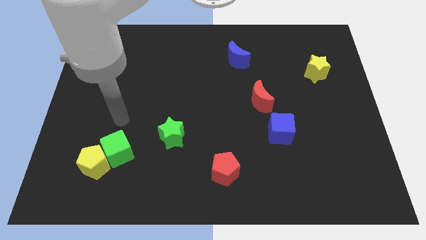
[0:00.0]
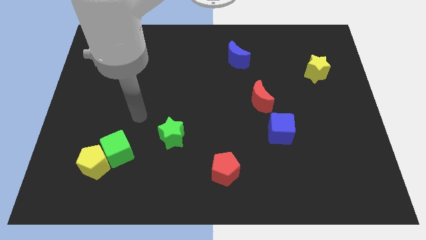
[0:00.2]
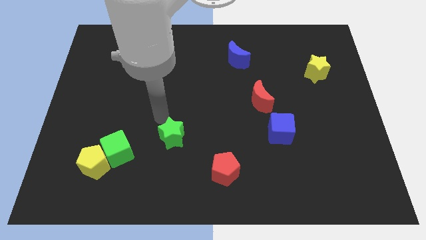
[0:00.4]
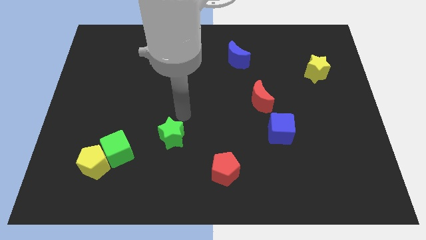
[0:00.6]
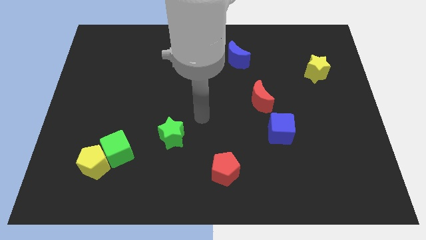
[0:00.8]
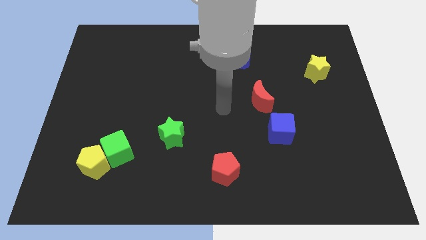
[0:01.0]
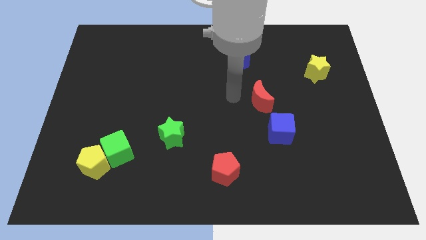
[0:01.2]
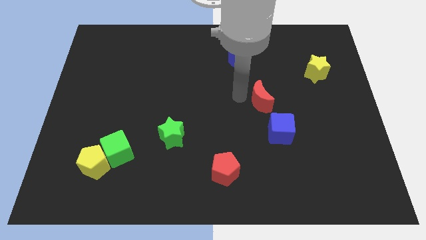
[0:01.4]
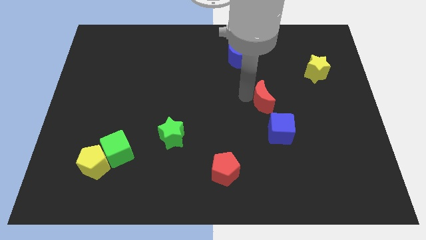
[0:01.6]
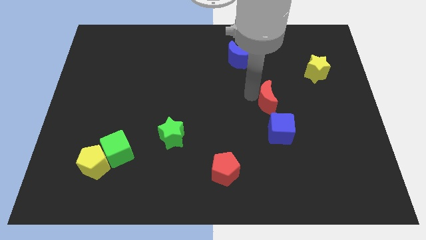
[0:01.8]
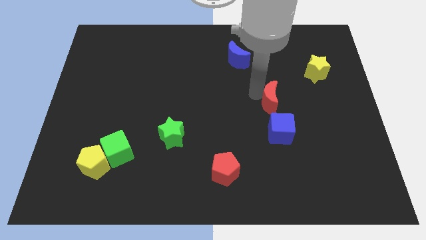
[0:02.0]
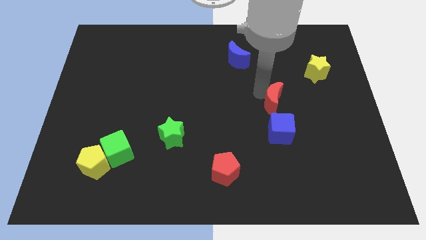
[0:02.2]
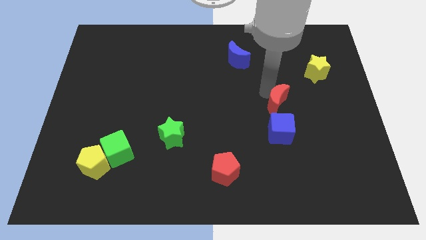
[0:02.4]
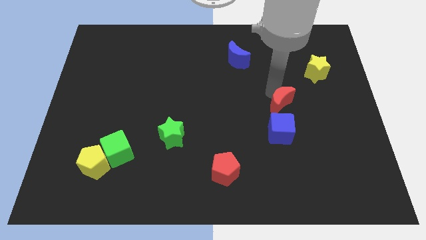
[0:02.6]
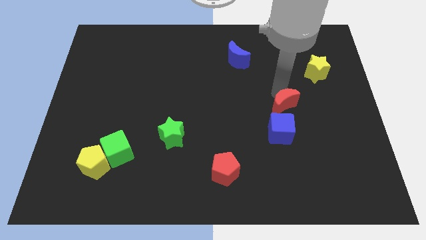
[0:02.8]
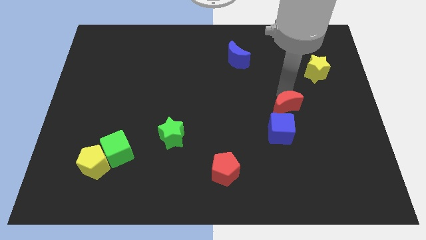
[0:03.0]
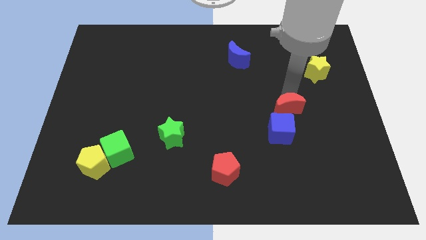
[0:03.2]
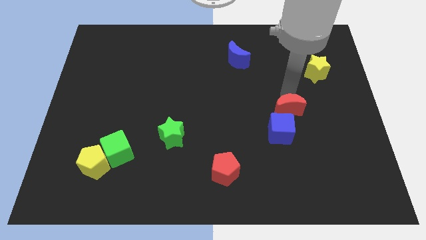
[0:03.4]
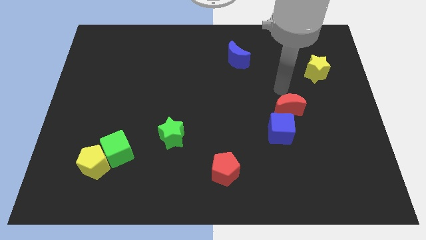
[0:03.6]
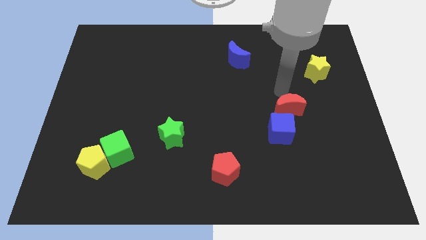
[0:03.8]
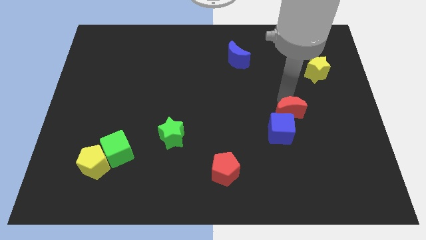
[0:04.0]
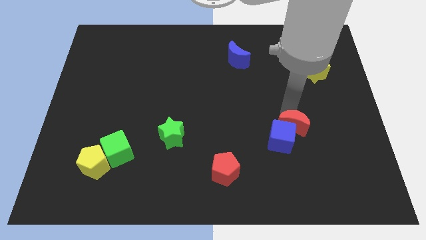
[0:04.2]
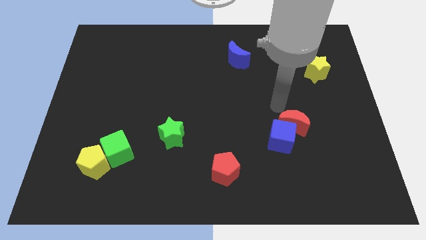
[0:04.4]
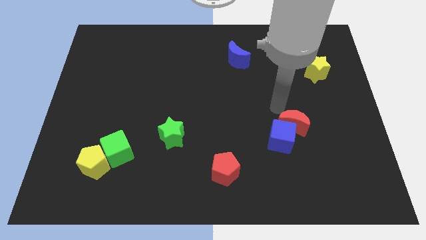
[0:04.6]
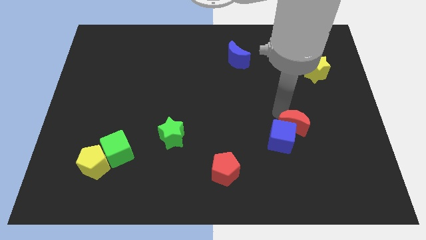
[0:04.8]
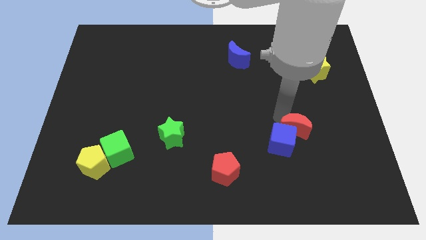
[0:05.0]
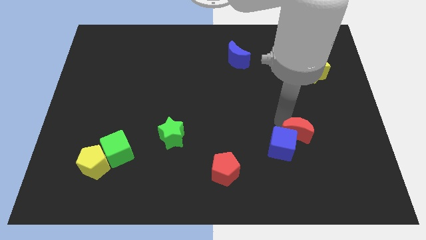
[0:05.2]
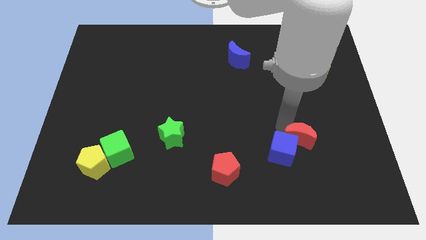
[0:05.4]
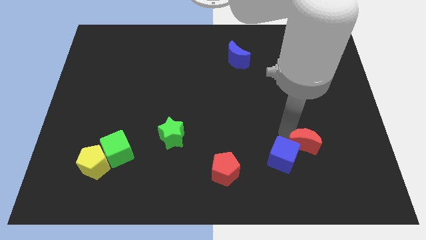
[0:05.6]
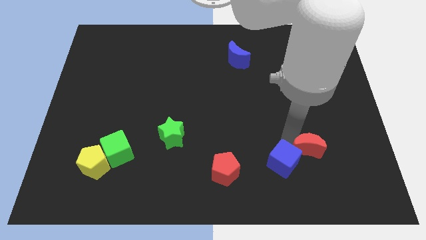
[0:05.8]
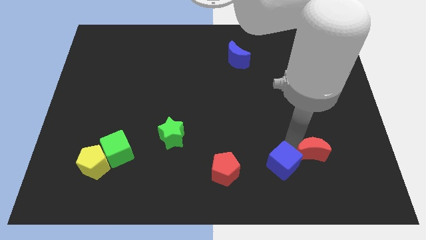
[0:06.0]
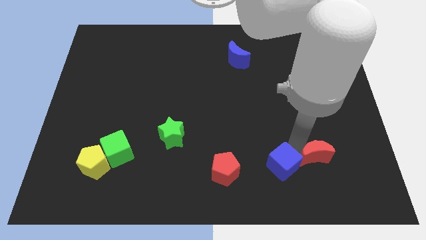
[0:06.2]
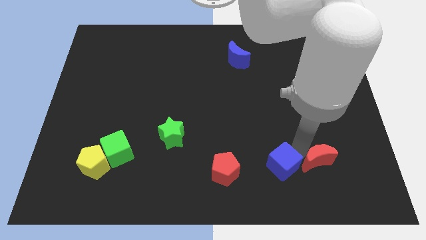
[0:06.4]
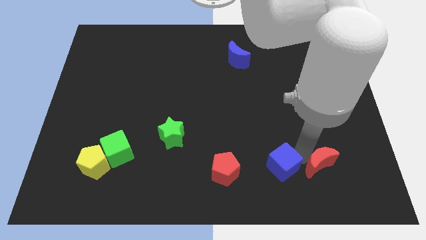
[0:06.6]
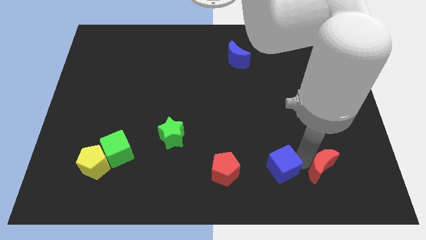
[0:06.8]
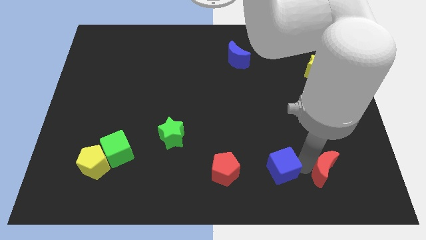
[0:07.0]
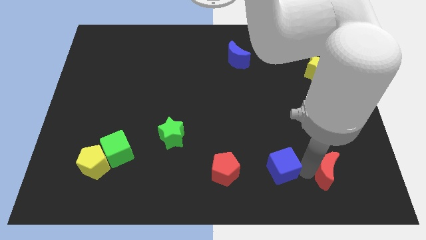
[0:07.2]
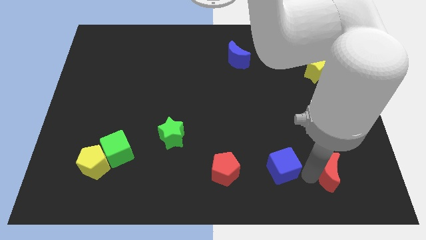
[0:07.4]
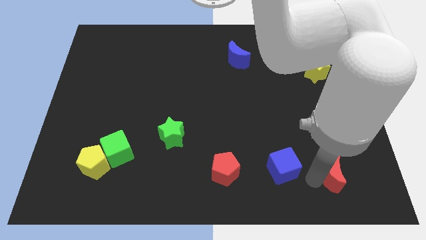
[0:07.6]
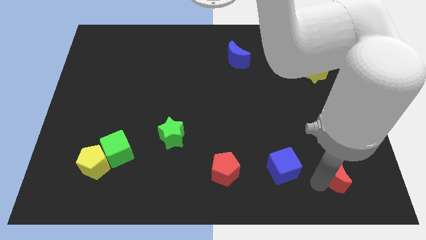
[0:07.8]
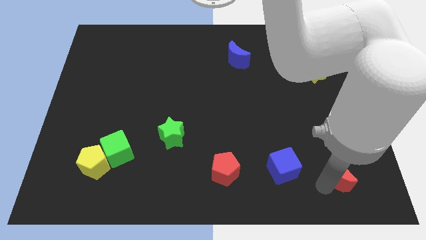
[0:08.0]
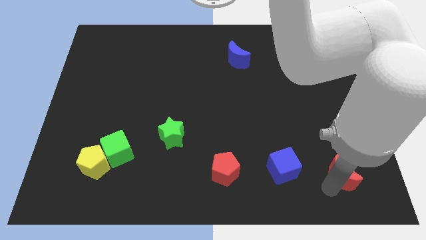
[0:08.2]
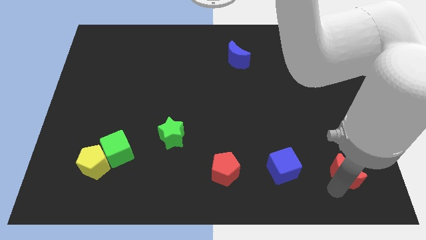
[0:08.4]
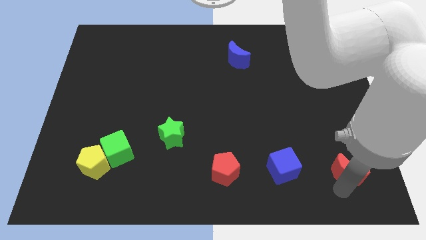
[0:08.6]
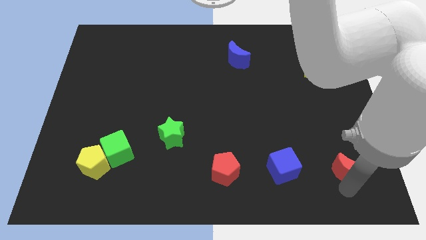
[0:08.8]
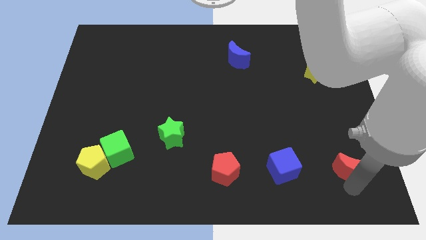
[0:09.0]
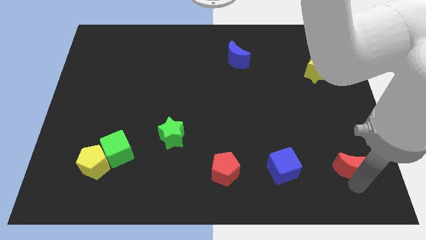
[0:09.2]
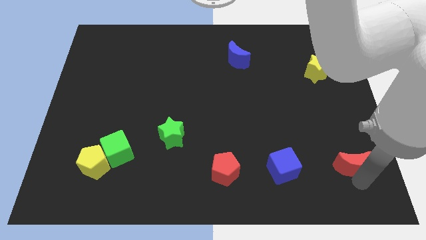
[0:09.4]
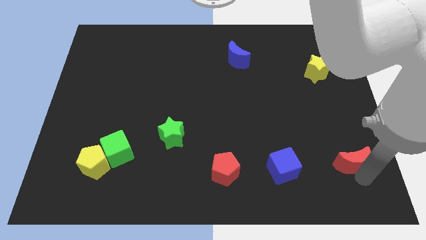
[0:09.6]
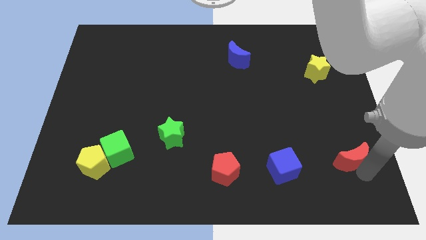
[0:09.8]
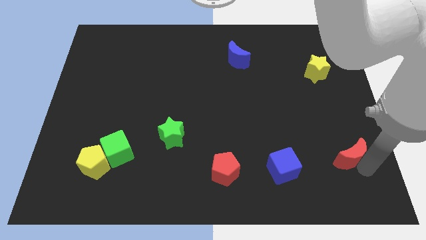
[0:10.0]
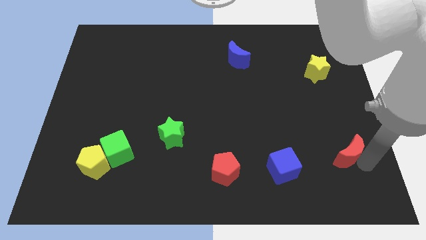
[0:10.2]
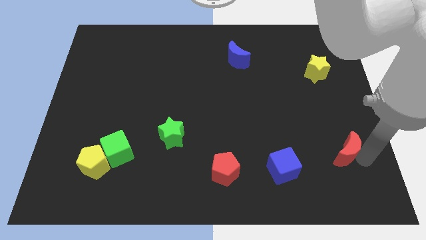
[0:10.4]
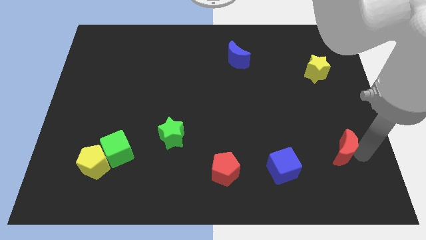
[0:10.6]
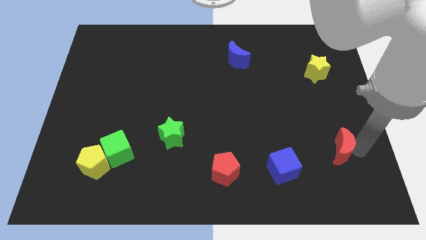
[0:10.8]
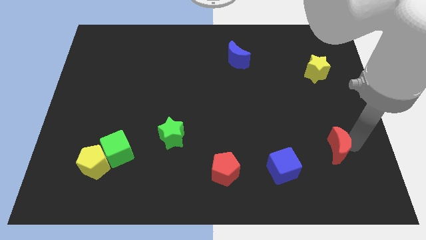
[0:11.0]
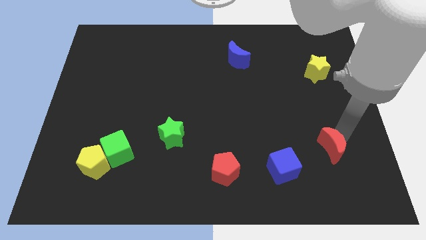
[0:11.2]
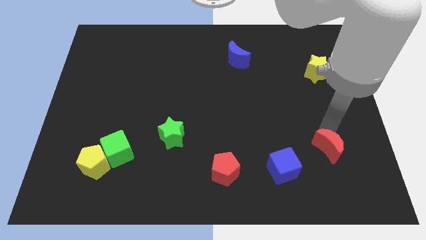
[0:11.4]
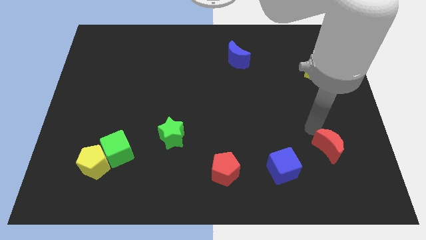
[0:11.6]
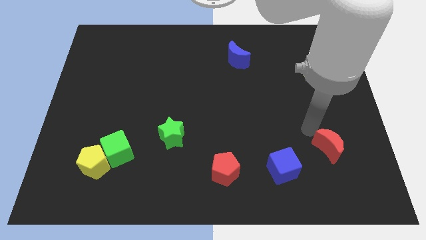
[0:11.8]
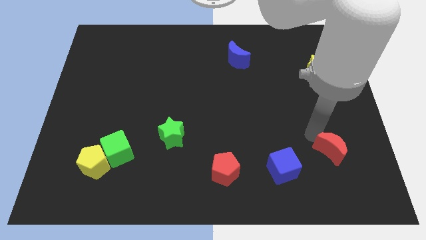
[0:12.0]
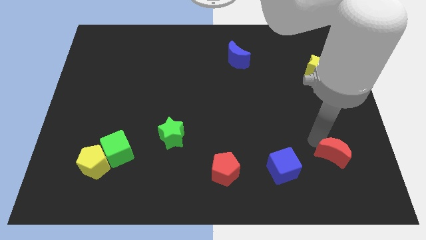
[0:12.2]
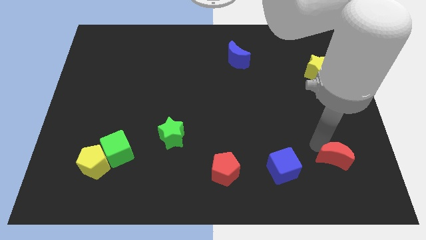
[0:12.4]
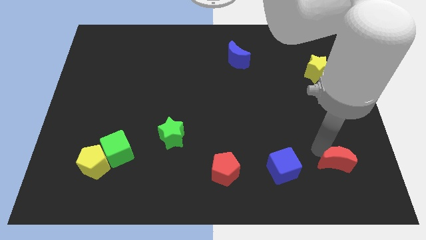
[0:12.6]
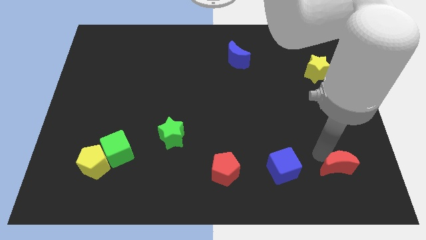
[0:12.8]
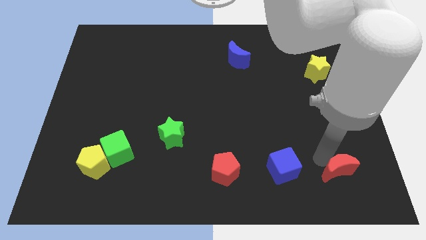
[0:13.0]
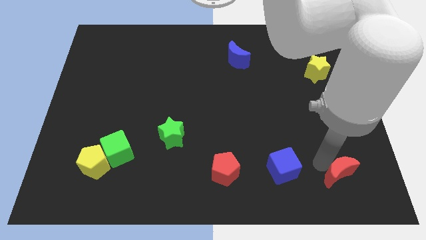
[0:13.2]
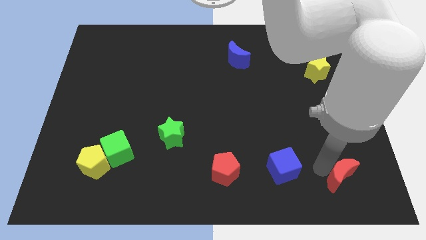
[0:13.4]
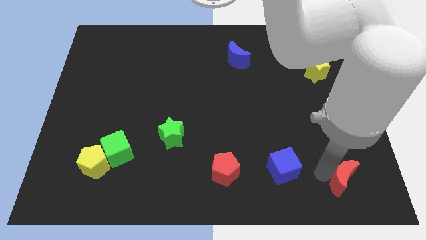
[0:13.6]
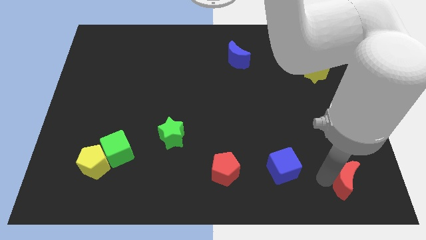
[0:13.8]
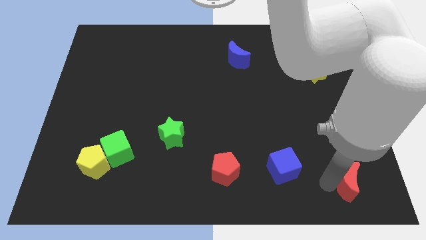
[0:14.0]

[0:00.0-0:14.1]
push the red moon to the lower right corner
